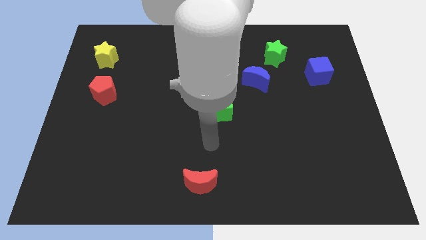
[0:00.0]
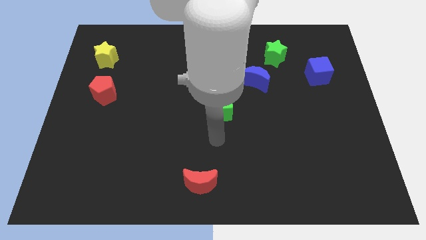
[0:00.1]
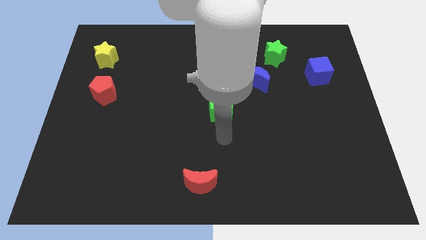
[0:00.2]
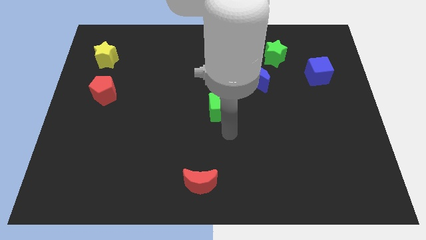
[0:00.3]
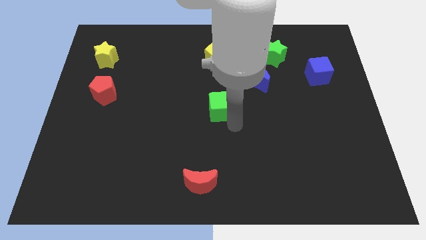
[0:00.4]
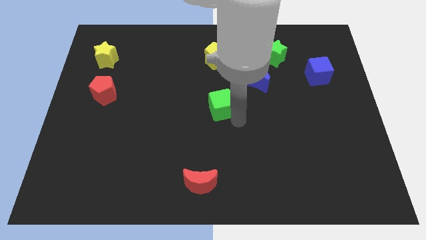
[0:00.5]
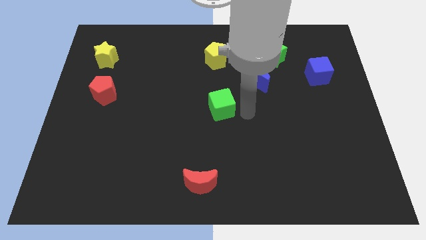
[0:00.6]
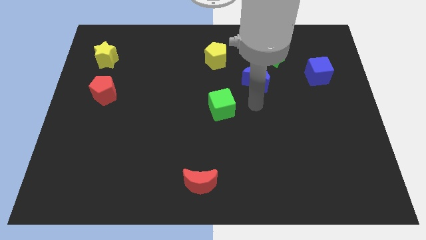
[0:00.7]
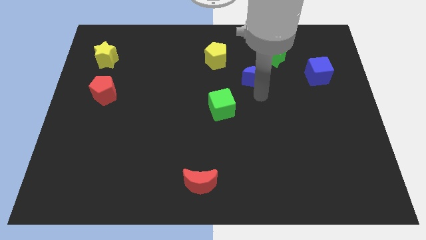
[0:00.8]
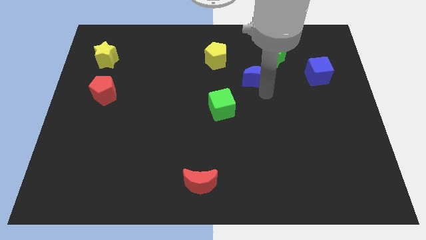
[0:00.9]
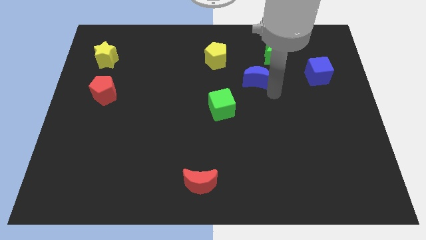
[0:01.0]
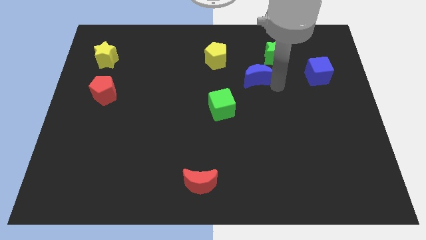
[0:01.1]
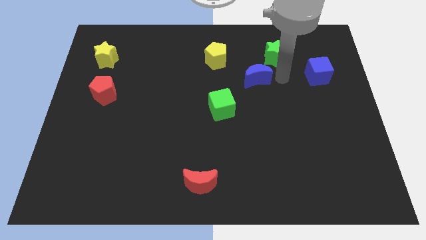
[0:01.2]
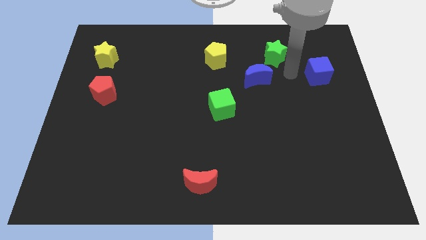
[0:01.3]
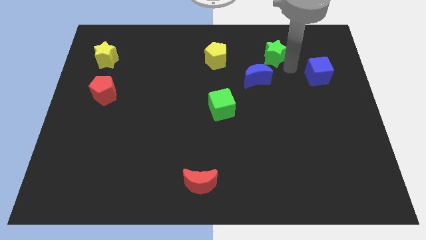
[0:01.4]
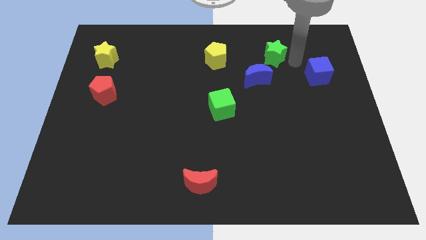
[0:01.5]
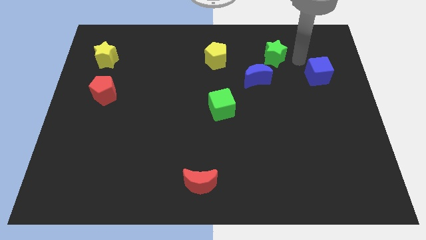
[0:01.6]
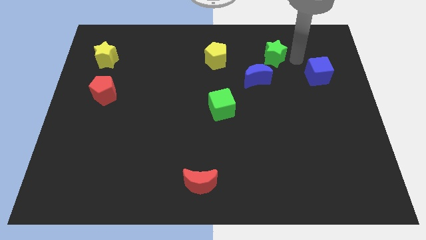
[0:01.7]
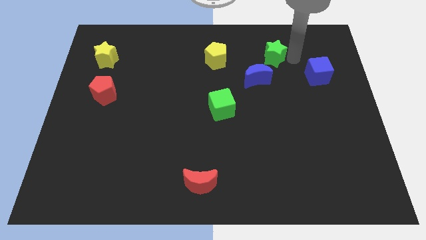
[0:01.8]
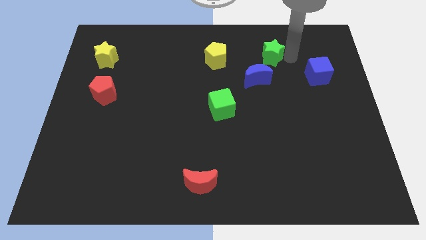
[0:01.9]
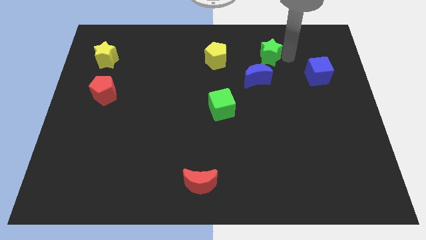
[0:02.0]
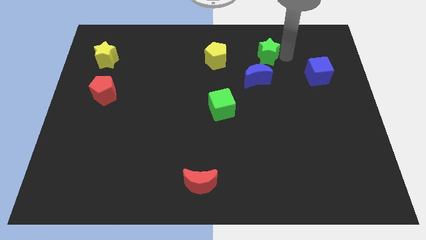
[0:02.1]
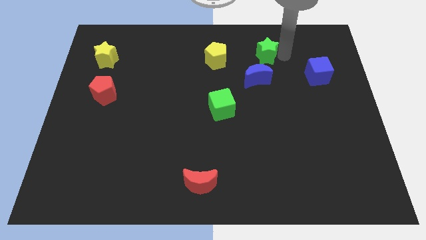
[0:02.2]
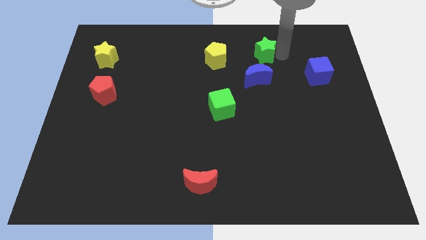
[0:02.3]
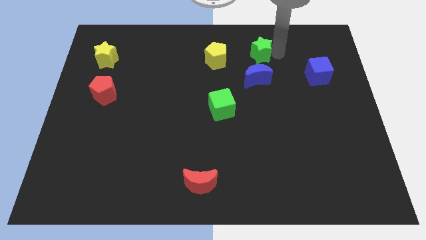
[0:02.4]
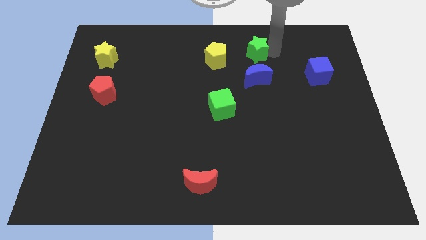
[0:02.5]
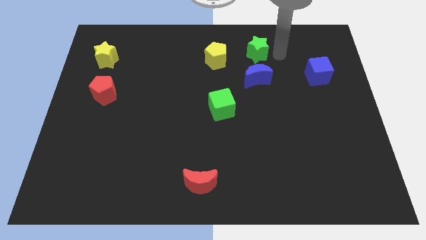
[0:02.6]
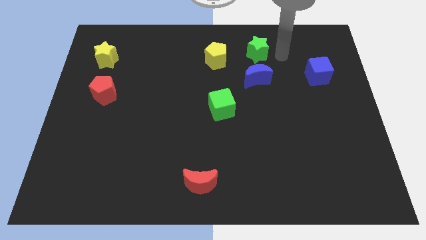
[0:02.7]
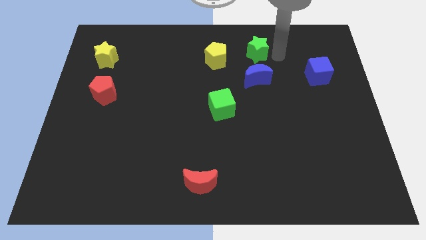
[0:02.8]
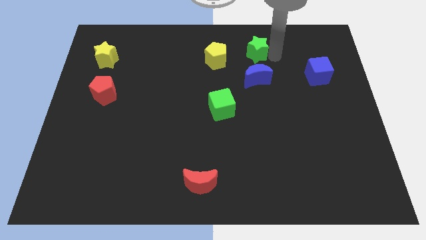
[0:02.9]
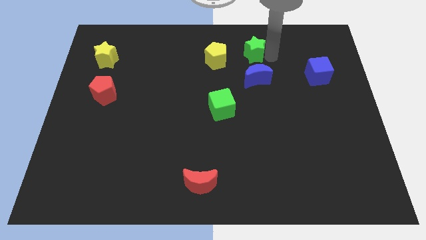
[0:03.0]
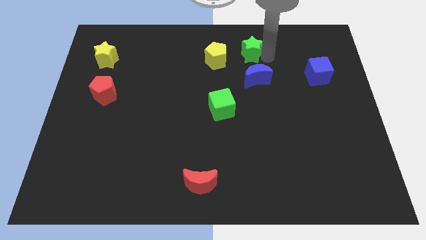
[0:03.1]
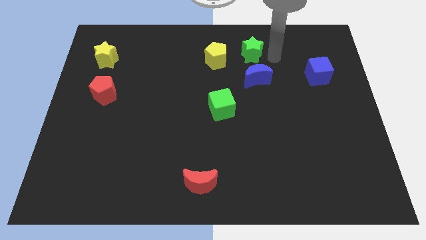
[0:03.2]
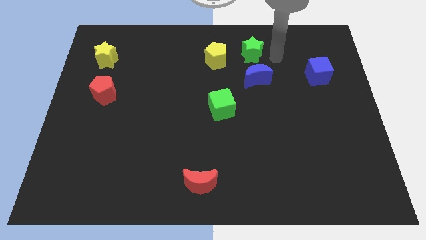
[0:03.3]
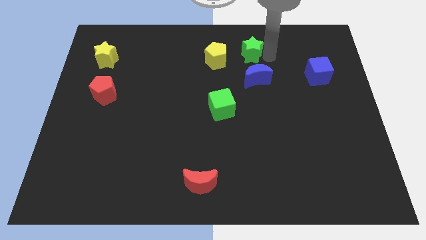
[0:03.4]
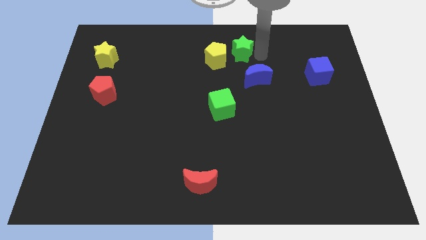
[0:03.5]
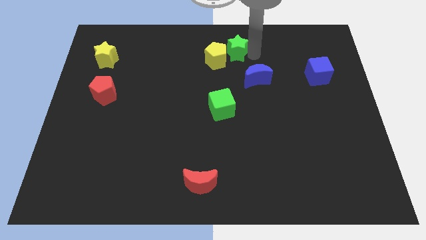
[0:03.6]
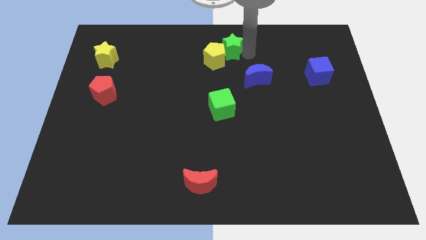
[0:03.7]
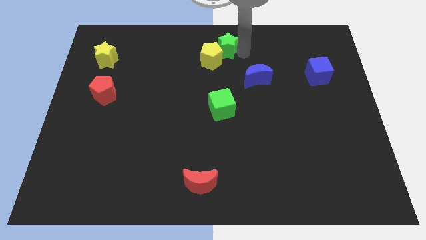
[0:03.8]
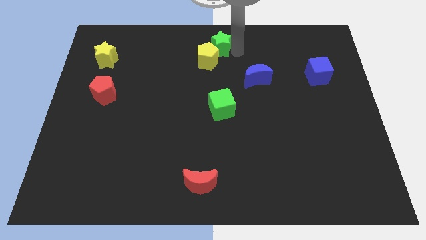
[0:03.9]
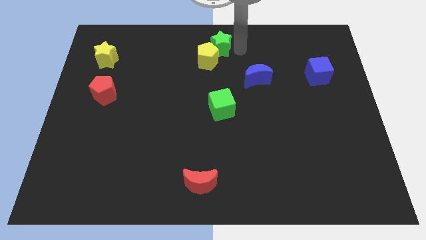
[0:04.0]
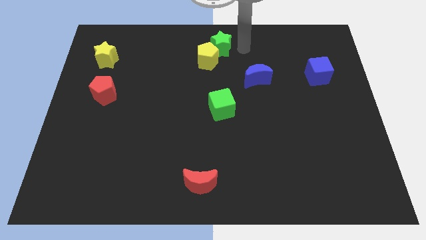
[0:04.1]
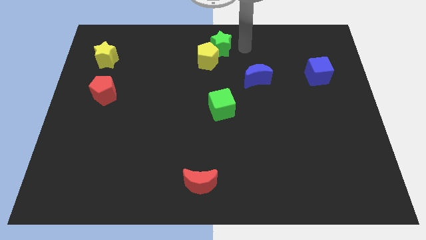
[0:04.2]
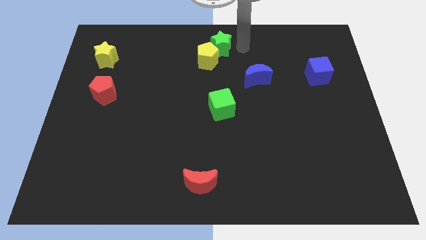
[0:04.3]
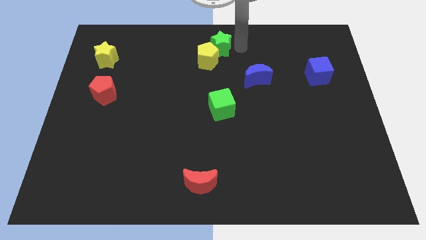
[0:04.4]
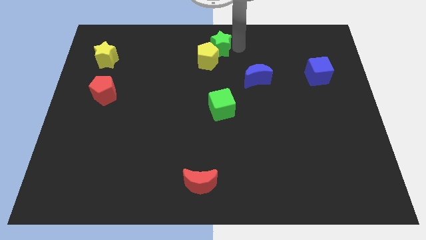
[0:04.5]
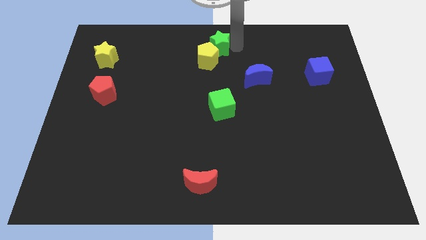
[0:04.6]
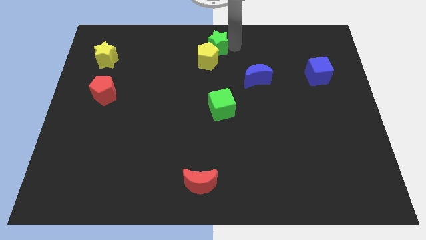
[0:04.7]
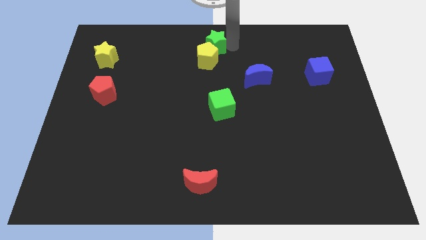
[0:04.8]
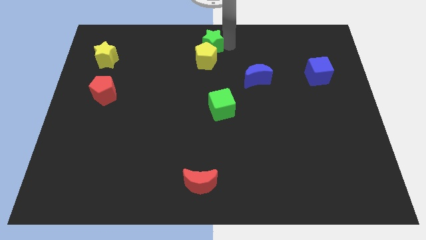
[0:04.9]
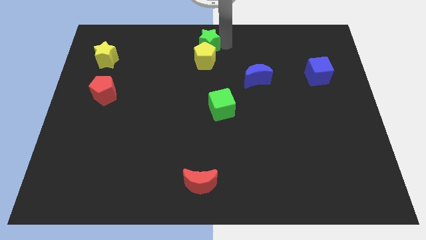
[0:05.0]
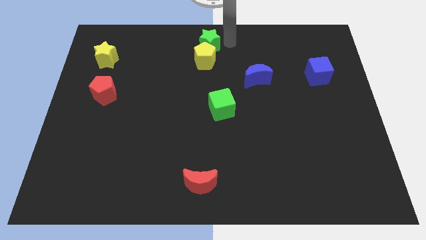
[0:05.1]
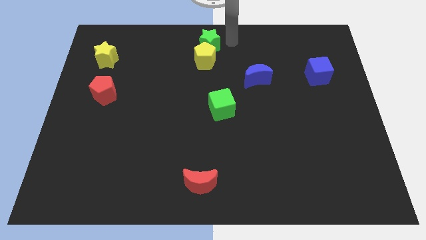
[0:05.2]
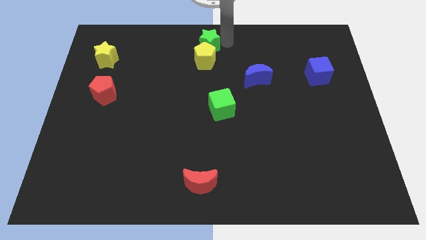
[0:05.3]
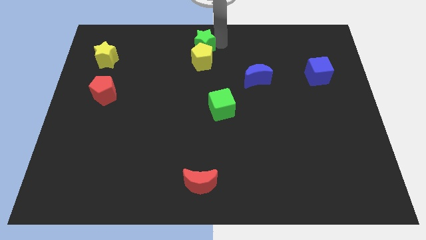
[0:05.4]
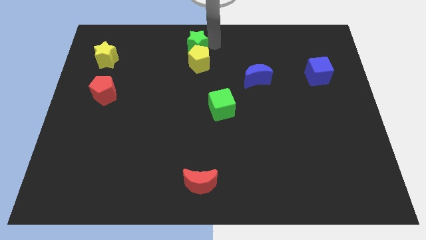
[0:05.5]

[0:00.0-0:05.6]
slide the green star left

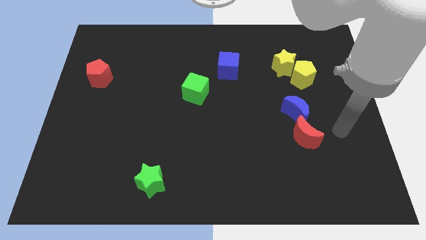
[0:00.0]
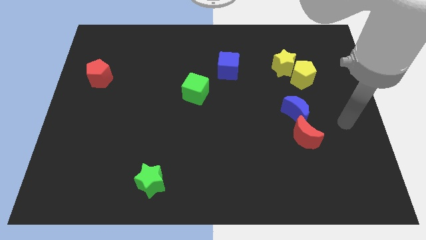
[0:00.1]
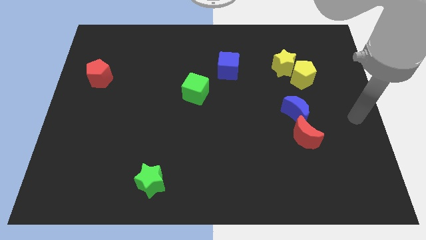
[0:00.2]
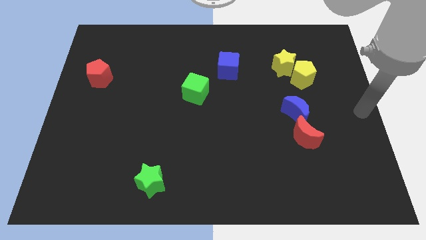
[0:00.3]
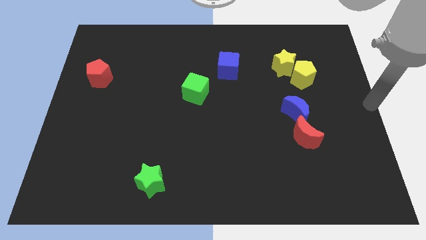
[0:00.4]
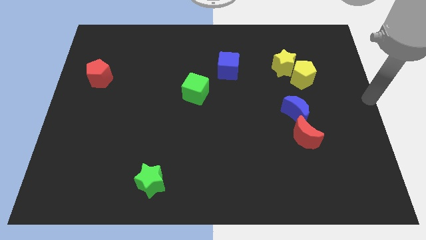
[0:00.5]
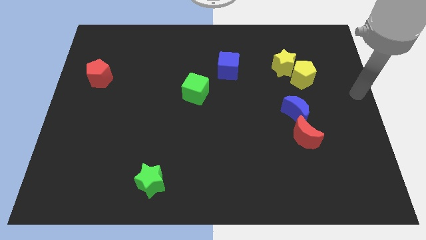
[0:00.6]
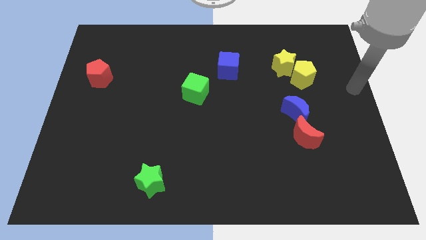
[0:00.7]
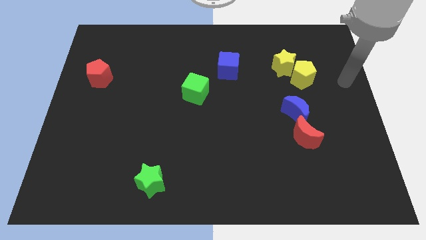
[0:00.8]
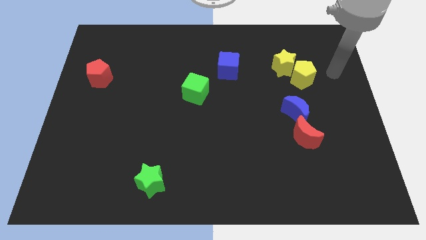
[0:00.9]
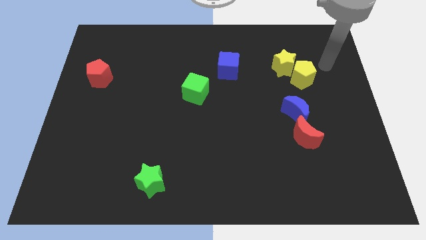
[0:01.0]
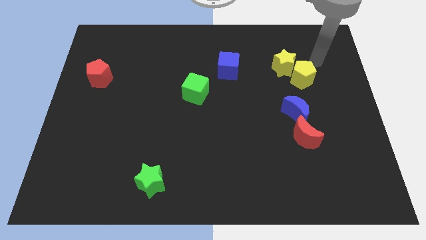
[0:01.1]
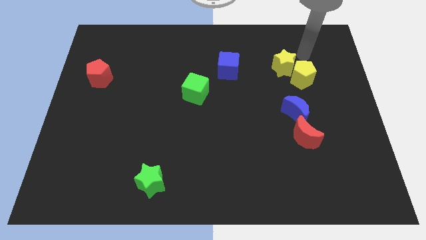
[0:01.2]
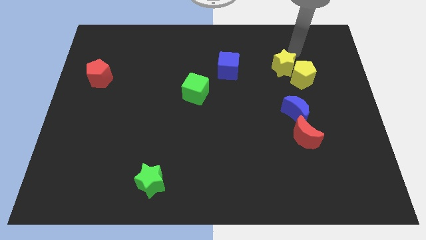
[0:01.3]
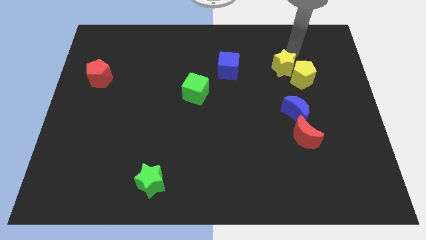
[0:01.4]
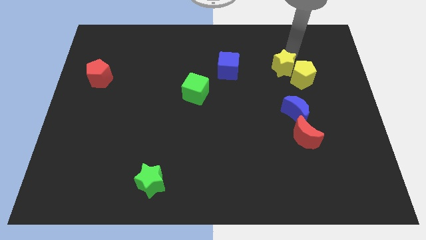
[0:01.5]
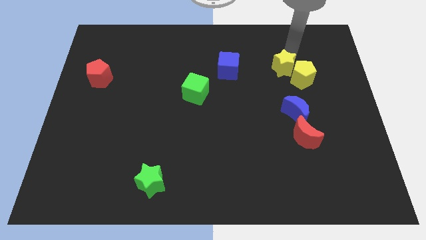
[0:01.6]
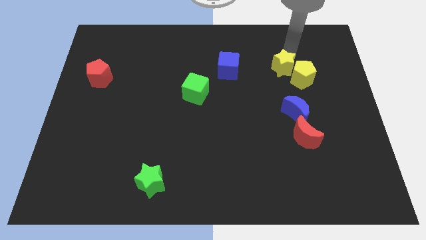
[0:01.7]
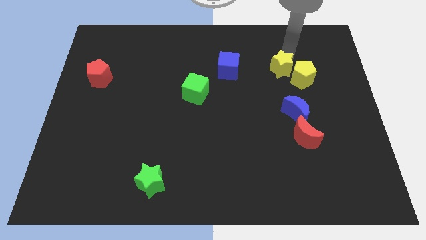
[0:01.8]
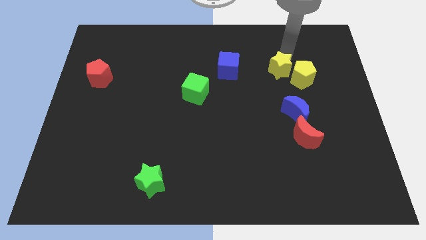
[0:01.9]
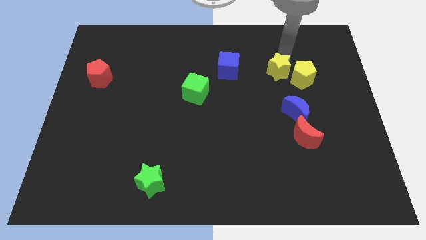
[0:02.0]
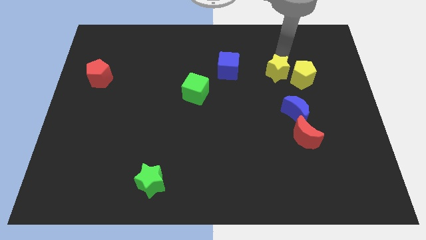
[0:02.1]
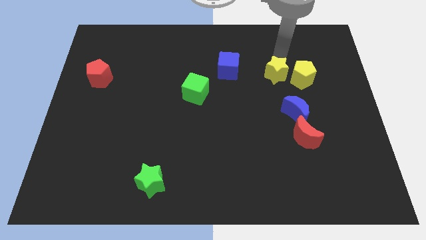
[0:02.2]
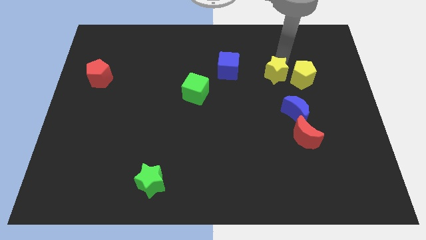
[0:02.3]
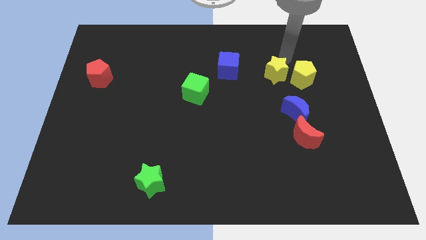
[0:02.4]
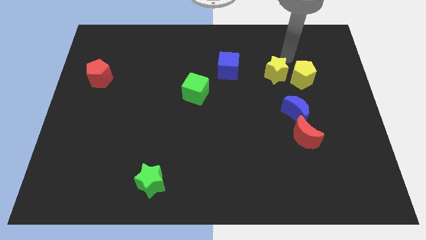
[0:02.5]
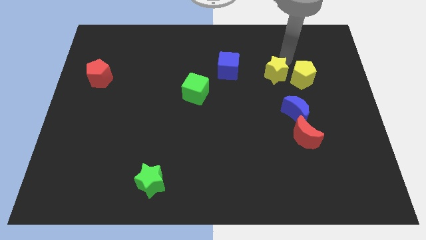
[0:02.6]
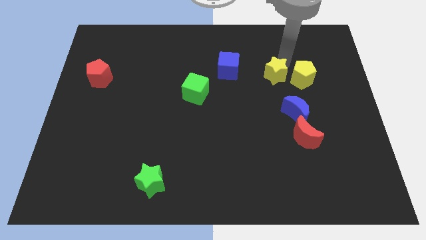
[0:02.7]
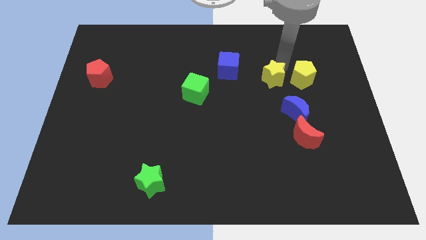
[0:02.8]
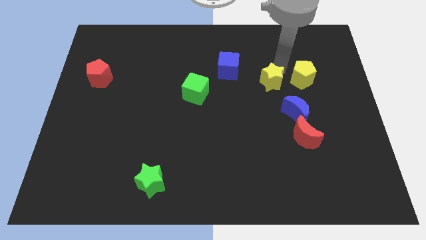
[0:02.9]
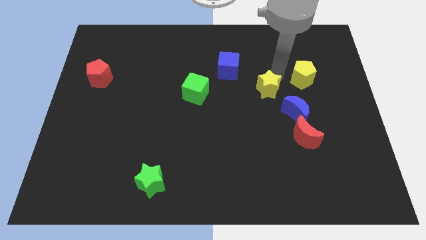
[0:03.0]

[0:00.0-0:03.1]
slightly move the yellow star downwards and to the left
